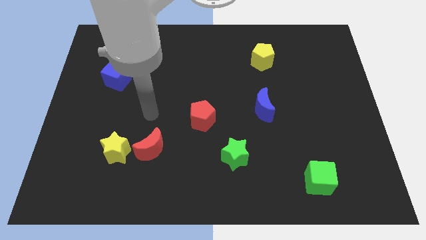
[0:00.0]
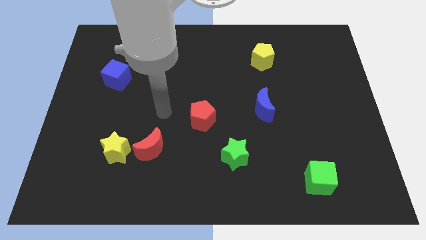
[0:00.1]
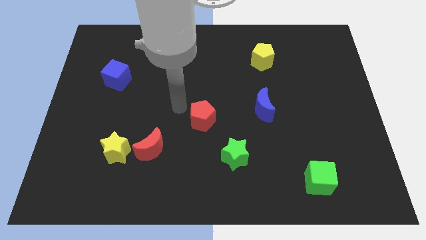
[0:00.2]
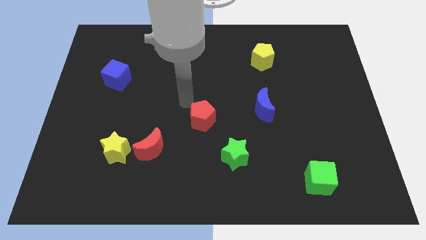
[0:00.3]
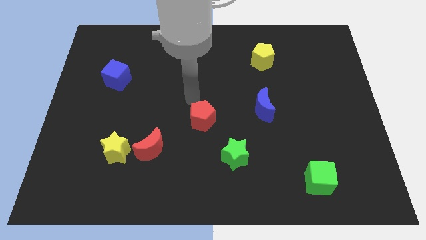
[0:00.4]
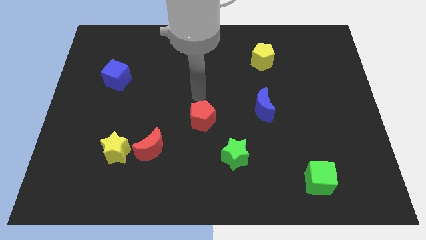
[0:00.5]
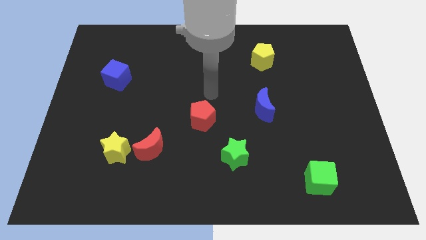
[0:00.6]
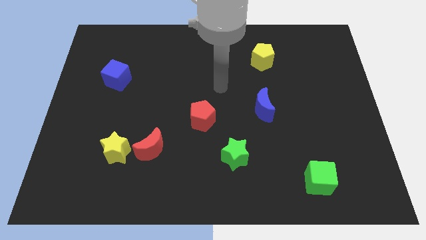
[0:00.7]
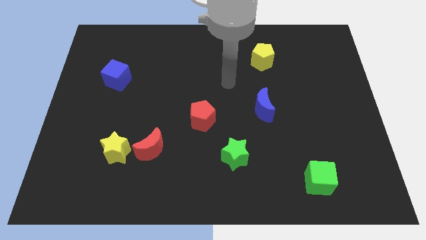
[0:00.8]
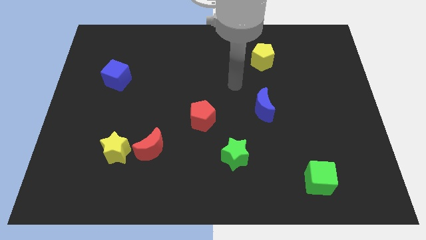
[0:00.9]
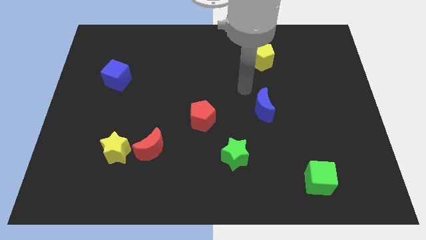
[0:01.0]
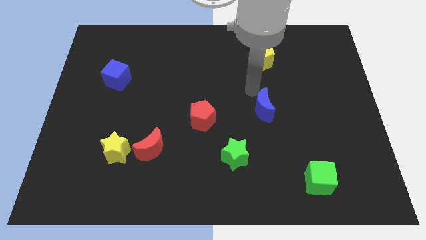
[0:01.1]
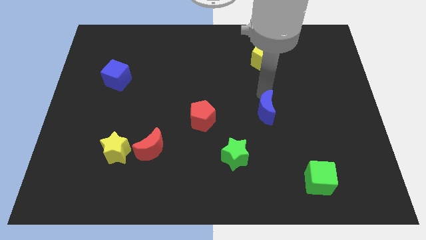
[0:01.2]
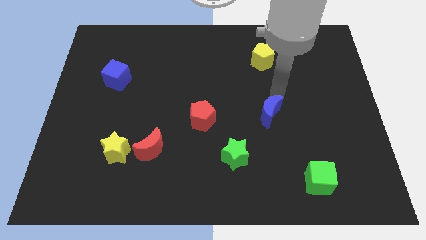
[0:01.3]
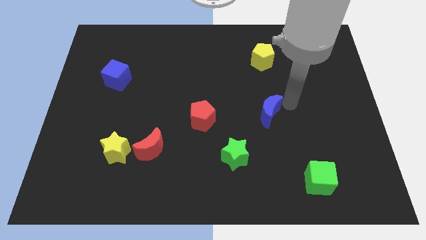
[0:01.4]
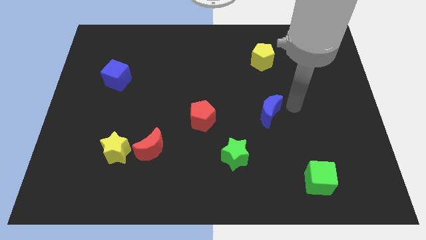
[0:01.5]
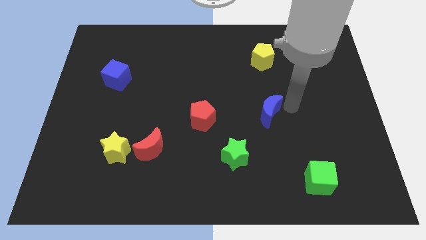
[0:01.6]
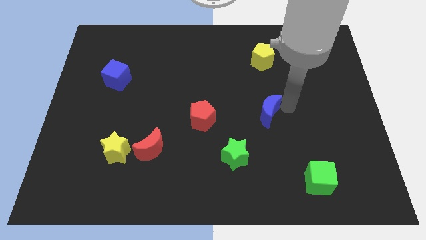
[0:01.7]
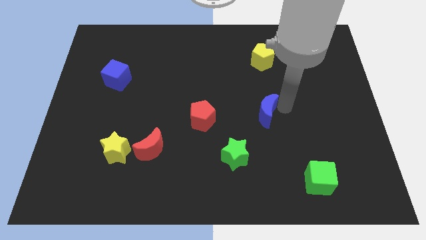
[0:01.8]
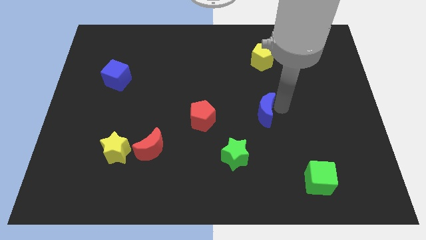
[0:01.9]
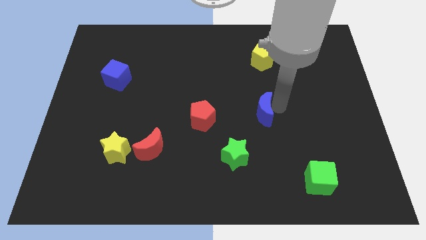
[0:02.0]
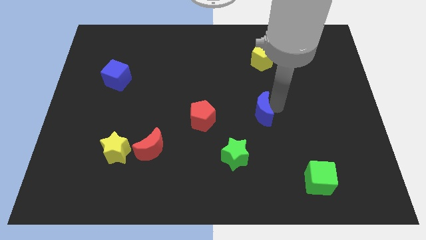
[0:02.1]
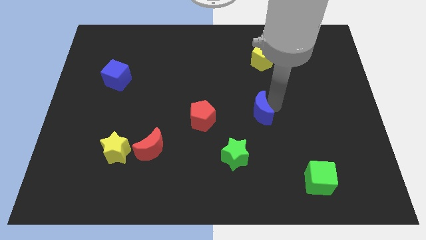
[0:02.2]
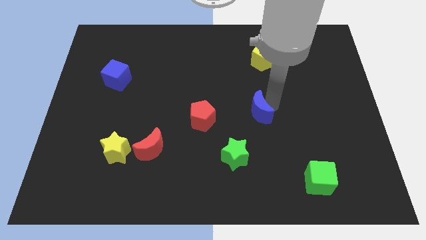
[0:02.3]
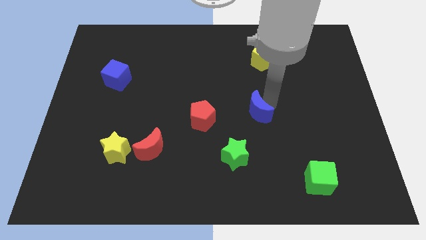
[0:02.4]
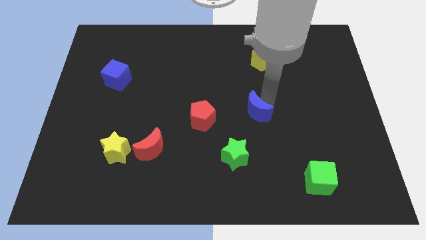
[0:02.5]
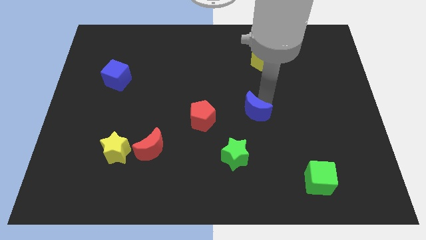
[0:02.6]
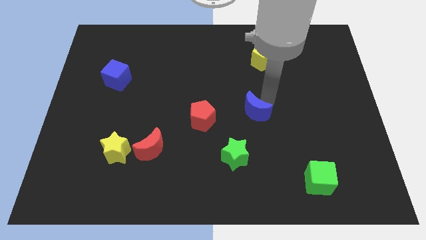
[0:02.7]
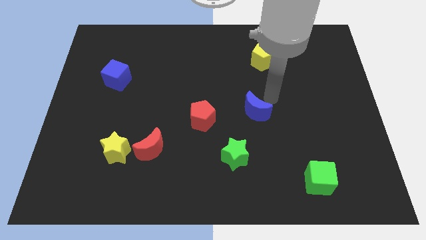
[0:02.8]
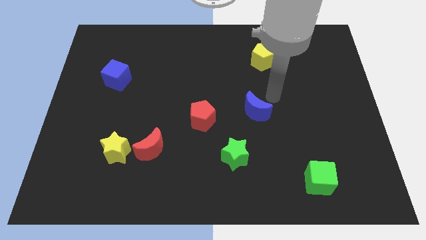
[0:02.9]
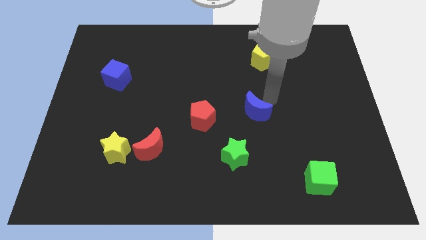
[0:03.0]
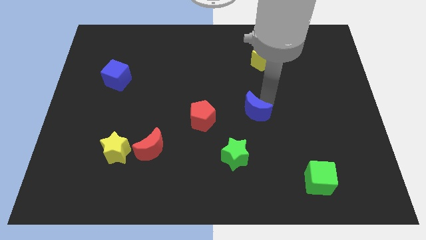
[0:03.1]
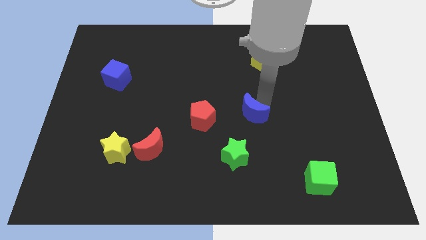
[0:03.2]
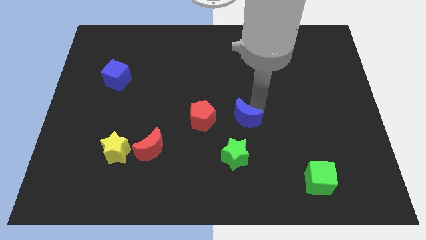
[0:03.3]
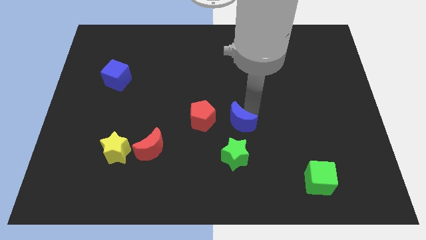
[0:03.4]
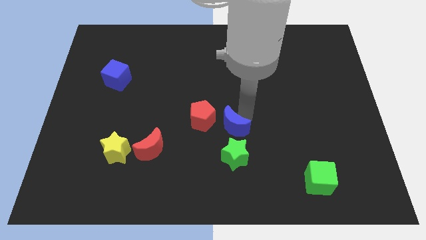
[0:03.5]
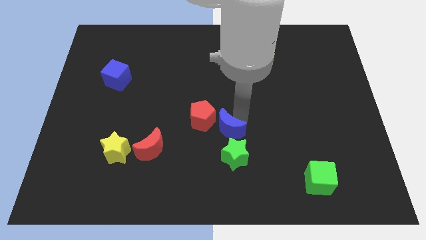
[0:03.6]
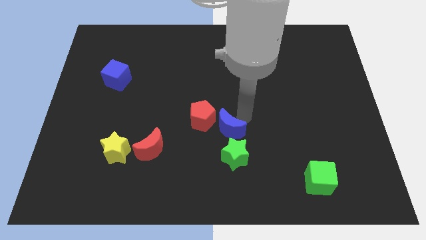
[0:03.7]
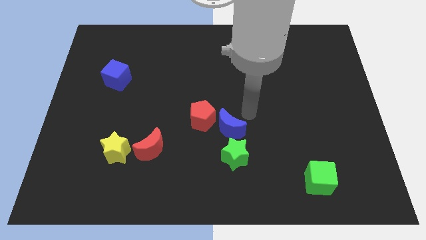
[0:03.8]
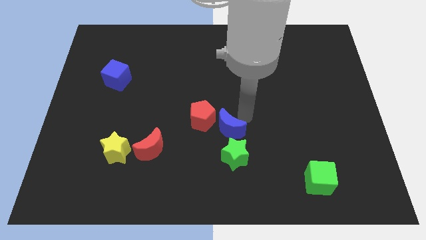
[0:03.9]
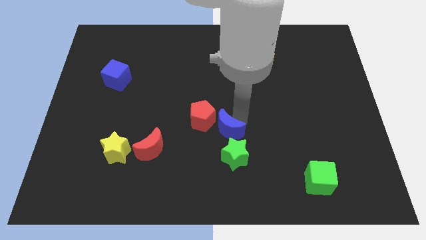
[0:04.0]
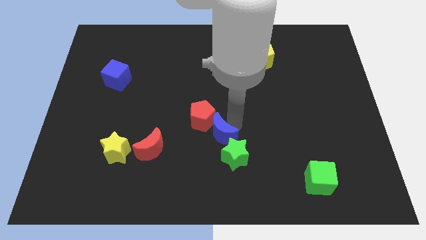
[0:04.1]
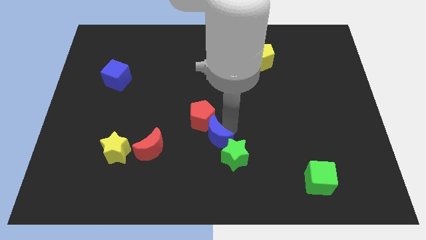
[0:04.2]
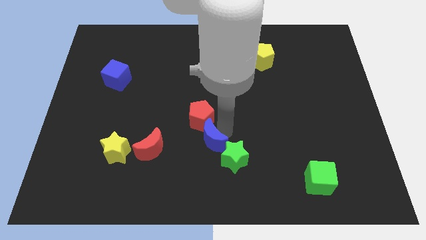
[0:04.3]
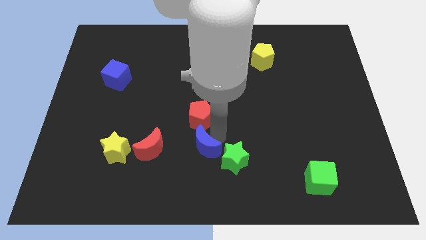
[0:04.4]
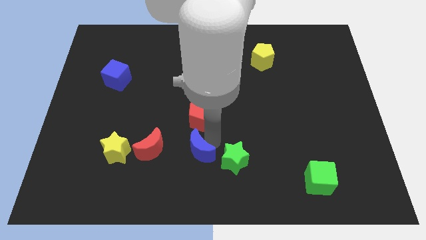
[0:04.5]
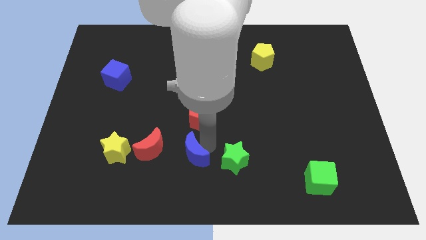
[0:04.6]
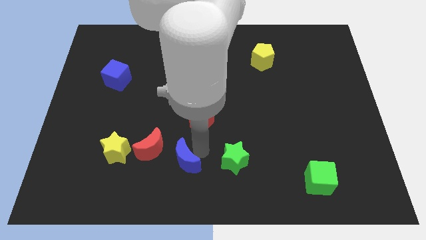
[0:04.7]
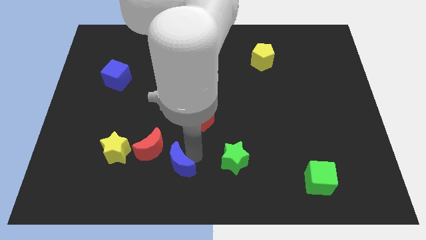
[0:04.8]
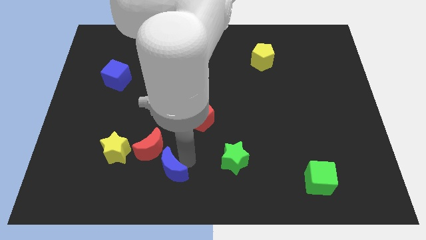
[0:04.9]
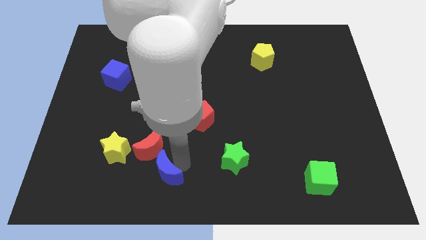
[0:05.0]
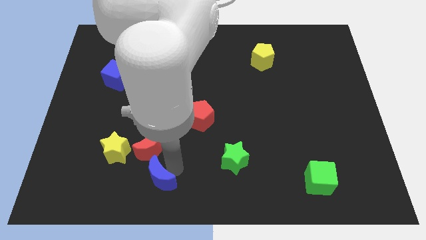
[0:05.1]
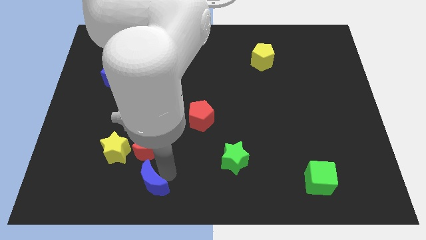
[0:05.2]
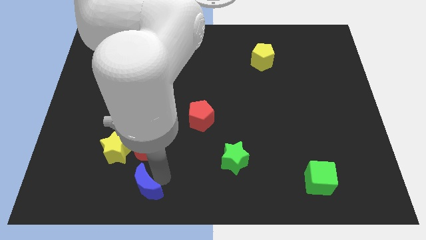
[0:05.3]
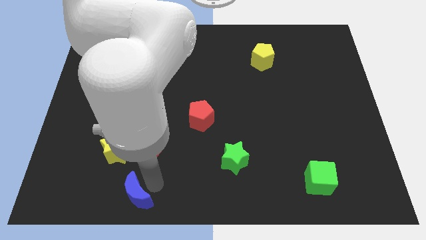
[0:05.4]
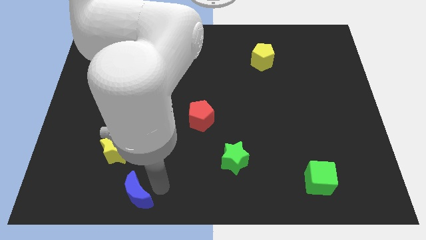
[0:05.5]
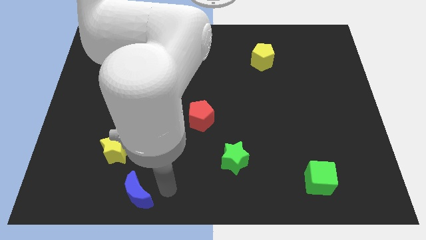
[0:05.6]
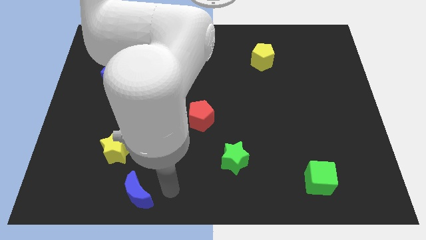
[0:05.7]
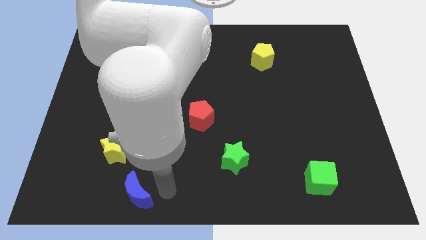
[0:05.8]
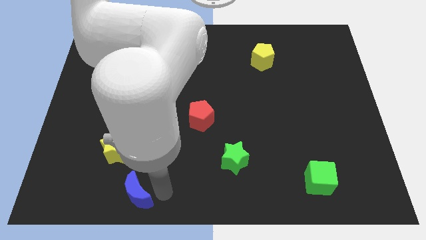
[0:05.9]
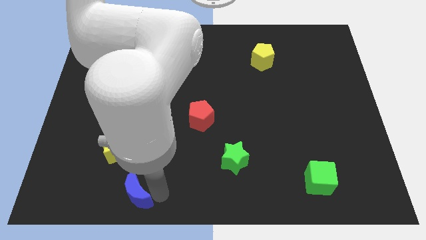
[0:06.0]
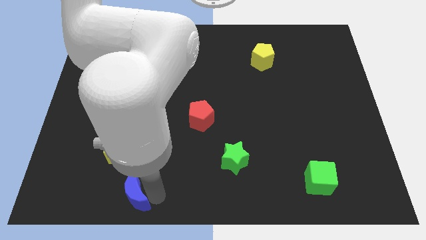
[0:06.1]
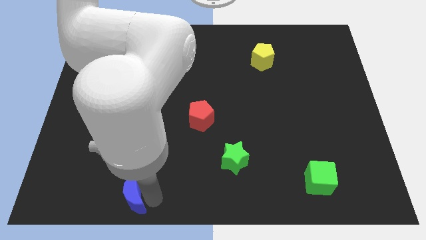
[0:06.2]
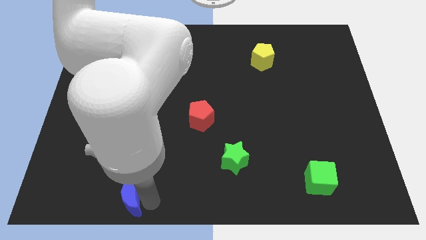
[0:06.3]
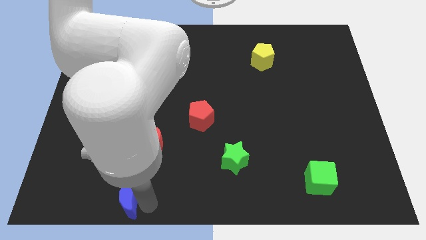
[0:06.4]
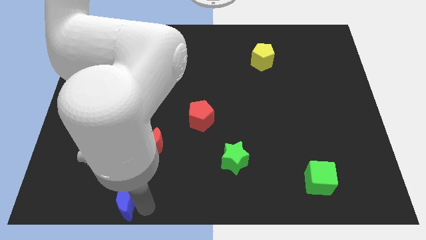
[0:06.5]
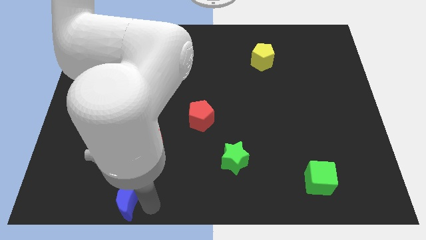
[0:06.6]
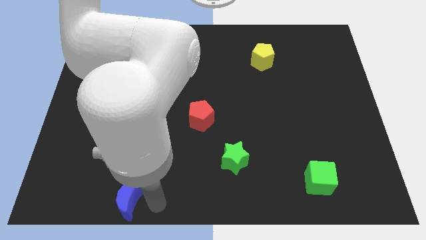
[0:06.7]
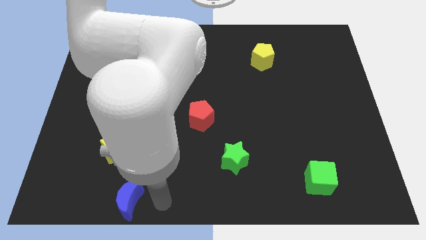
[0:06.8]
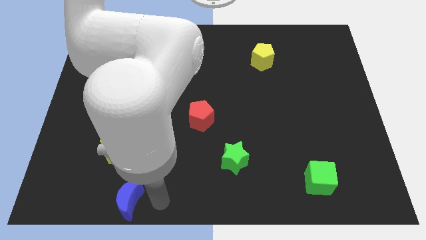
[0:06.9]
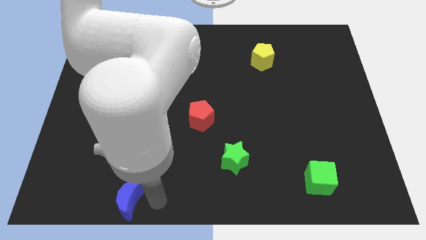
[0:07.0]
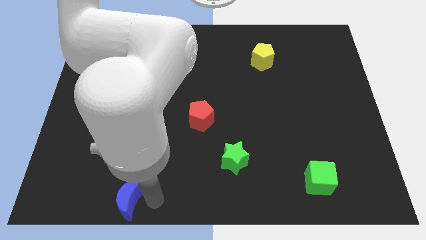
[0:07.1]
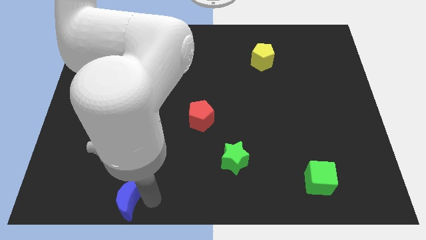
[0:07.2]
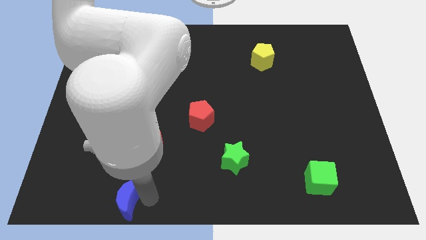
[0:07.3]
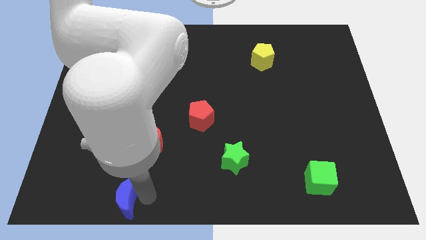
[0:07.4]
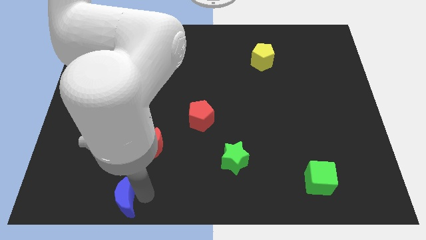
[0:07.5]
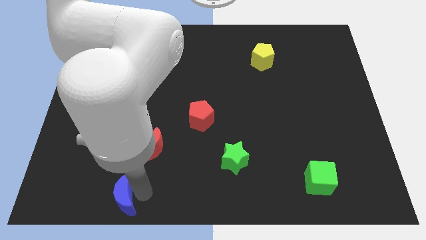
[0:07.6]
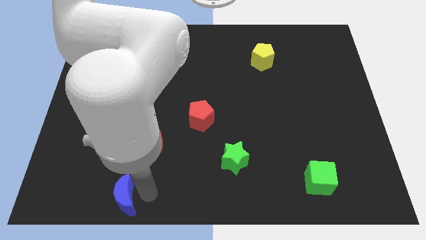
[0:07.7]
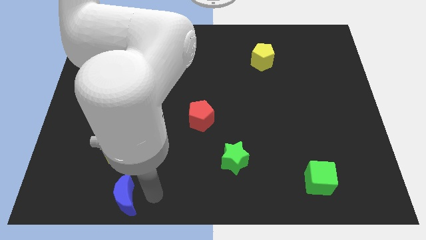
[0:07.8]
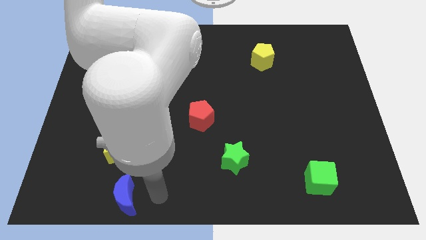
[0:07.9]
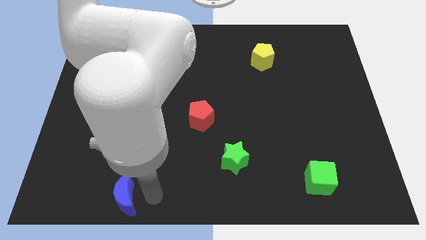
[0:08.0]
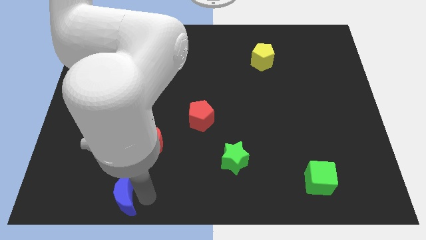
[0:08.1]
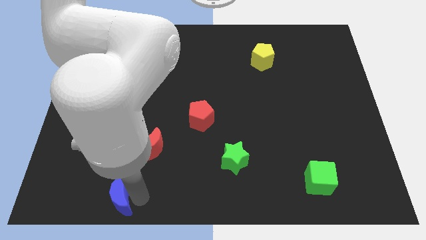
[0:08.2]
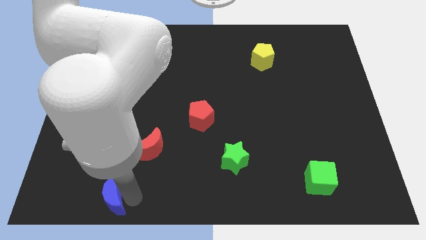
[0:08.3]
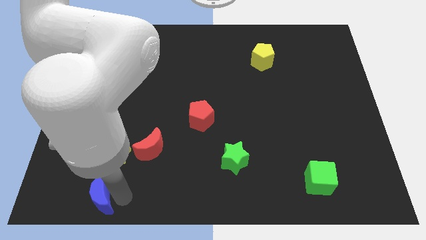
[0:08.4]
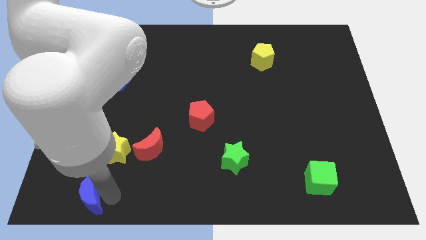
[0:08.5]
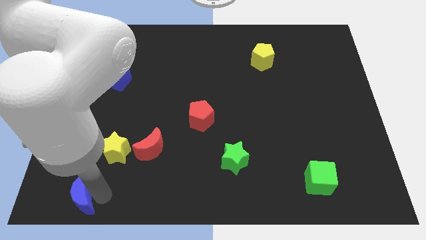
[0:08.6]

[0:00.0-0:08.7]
put the blue moon to the lower left corner
